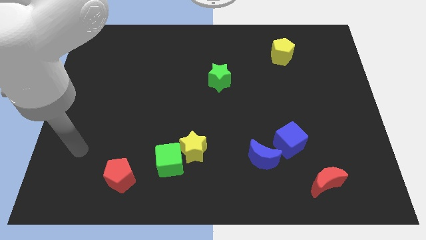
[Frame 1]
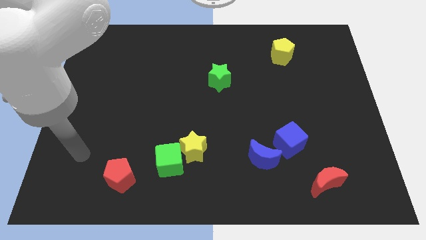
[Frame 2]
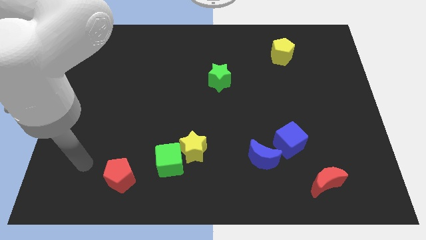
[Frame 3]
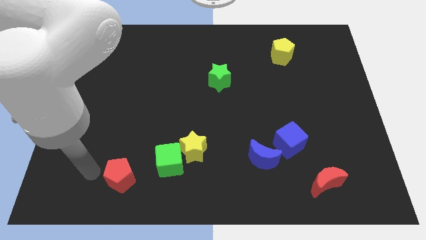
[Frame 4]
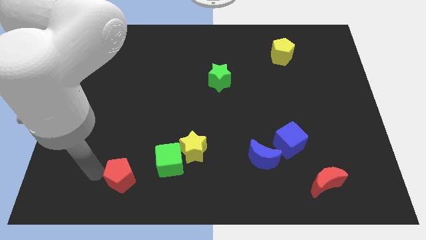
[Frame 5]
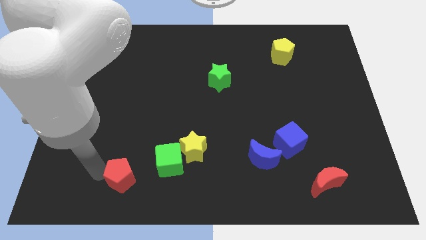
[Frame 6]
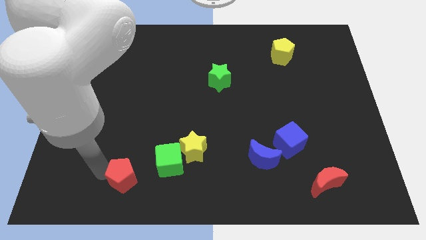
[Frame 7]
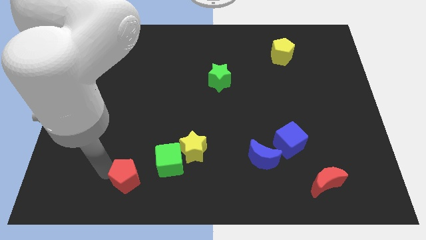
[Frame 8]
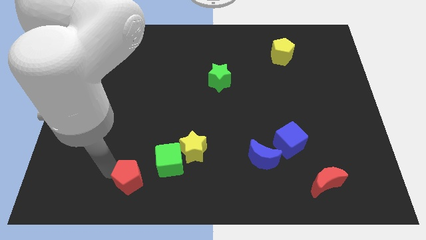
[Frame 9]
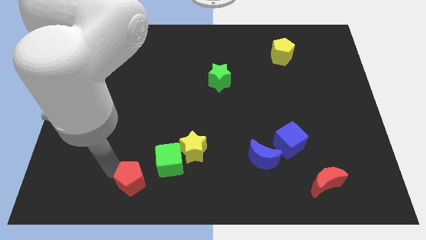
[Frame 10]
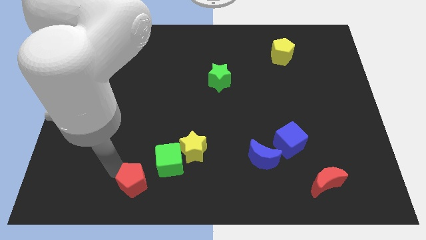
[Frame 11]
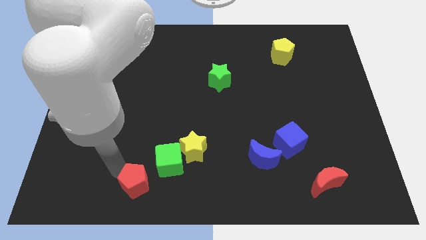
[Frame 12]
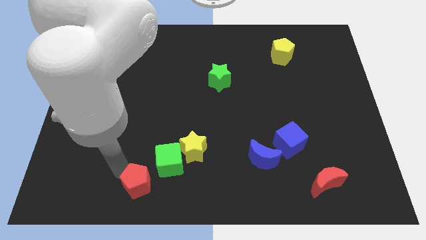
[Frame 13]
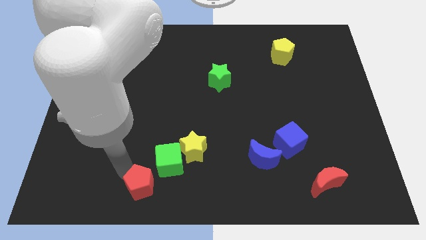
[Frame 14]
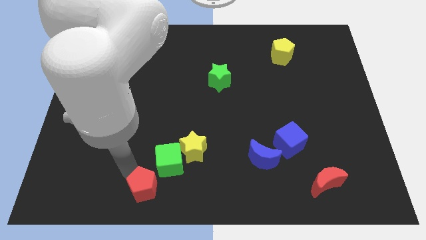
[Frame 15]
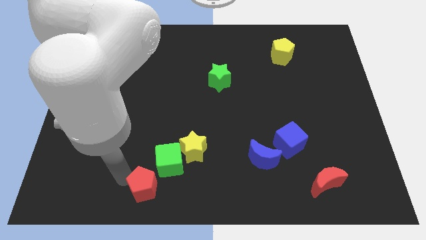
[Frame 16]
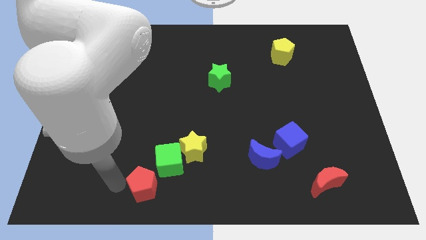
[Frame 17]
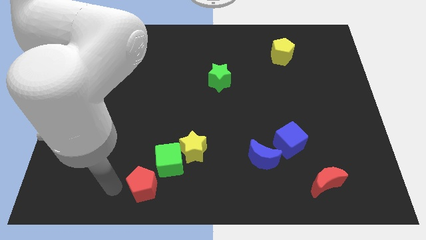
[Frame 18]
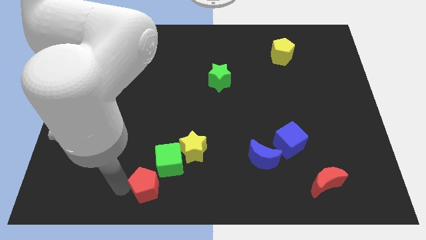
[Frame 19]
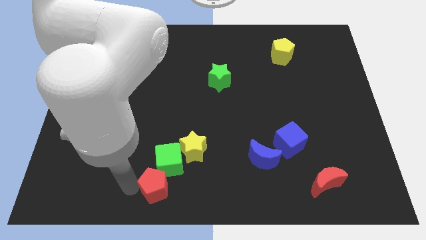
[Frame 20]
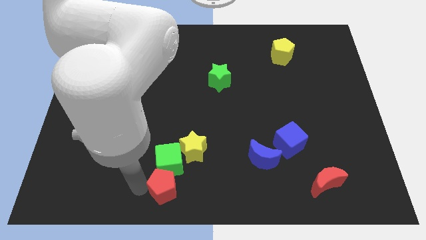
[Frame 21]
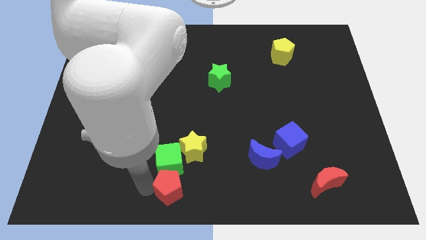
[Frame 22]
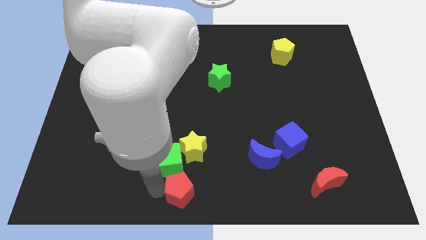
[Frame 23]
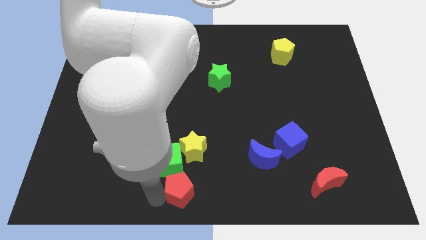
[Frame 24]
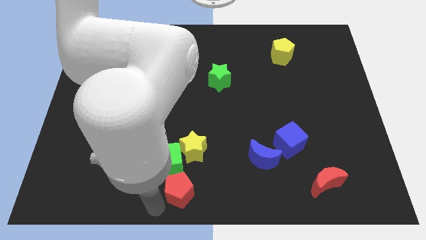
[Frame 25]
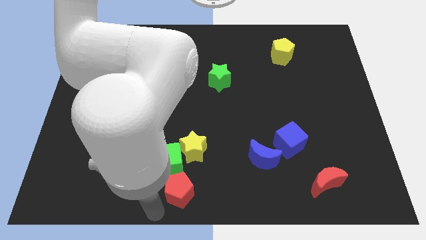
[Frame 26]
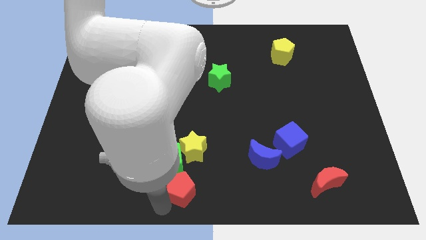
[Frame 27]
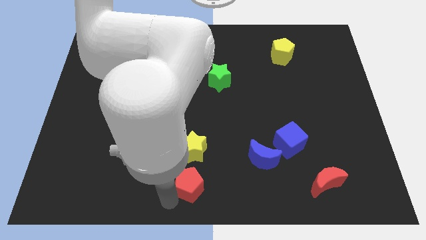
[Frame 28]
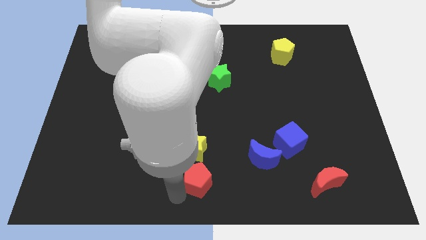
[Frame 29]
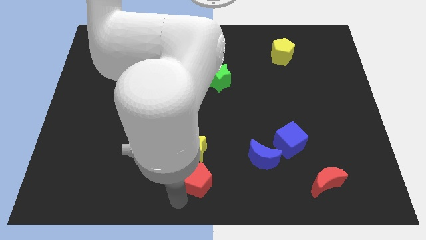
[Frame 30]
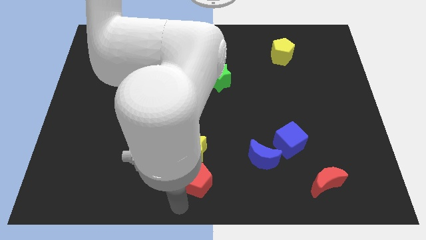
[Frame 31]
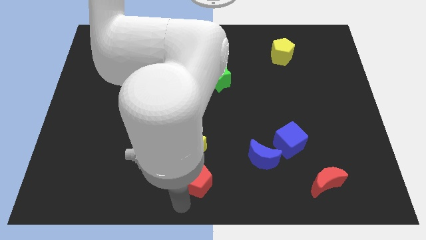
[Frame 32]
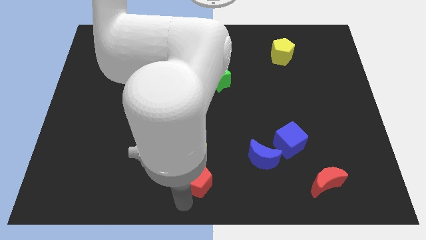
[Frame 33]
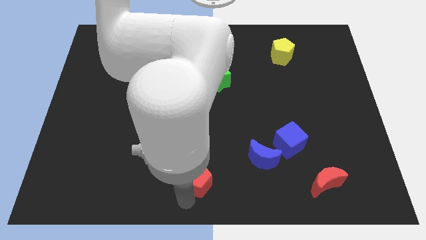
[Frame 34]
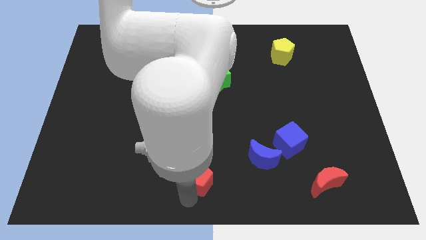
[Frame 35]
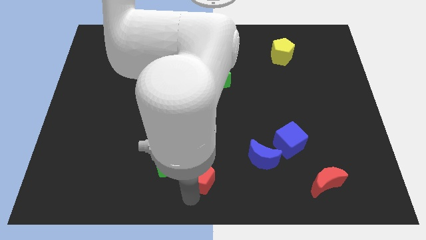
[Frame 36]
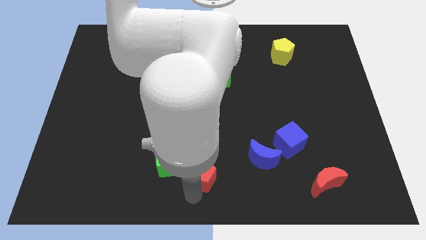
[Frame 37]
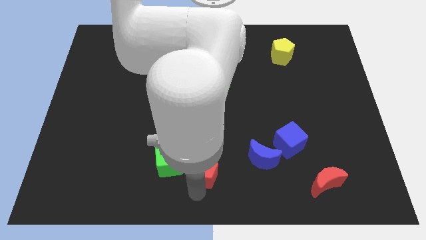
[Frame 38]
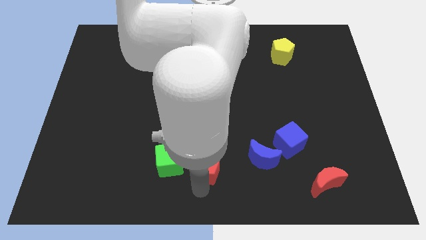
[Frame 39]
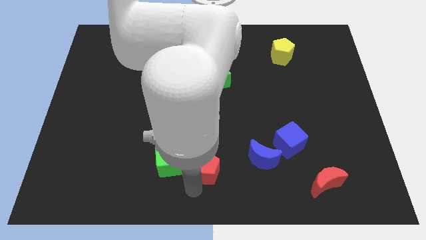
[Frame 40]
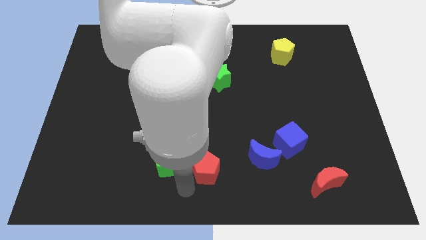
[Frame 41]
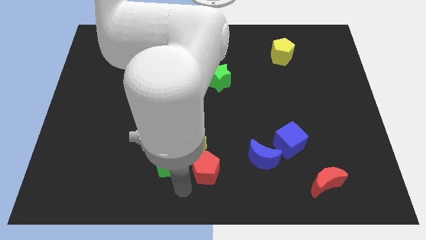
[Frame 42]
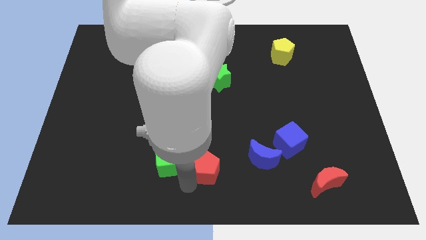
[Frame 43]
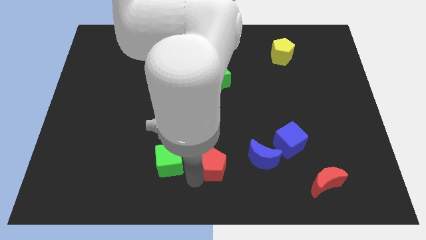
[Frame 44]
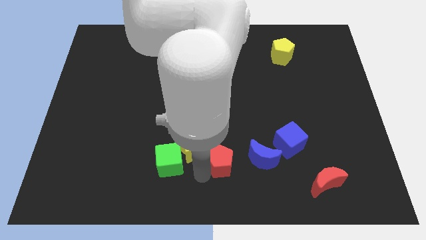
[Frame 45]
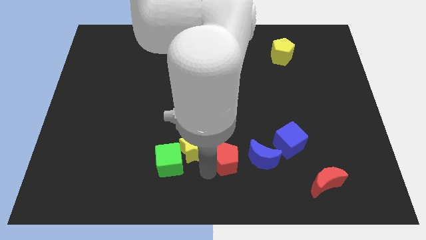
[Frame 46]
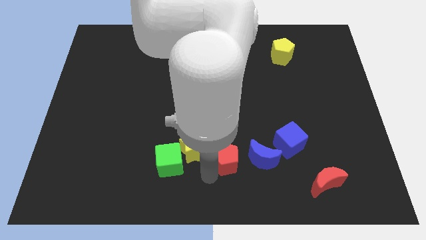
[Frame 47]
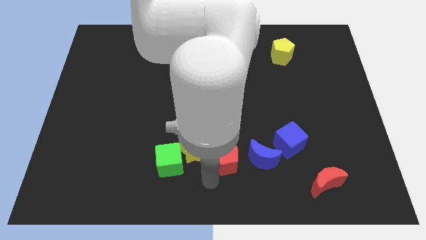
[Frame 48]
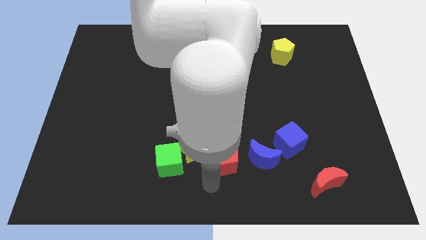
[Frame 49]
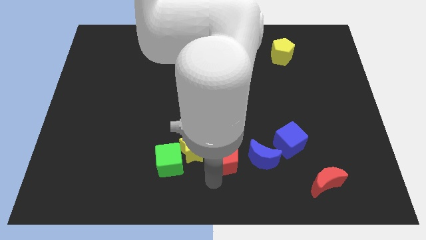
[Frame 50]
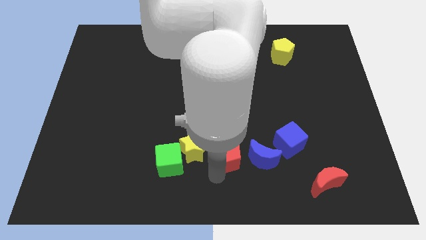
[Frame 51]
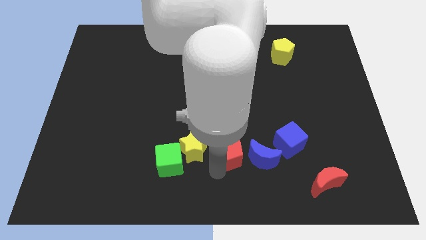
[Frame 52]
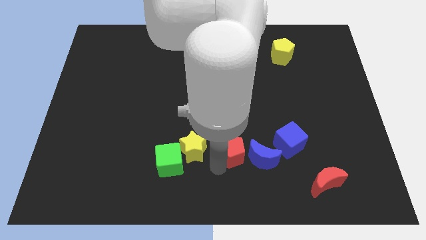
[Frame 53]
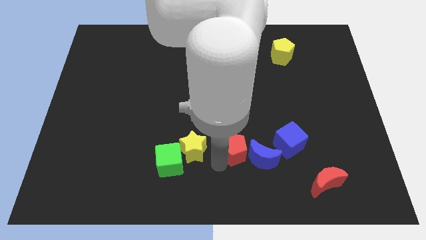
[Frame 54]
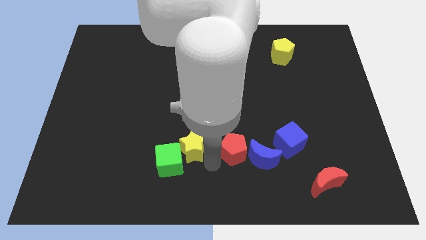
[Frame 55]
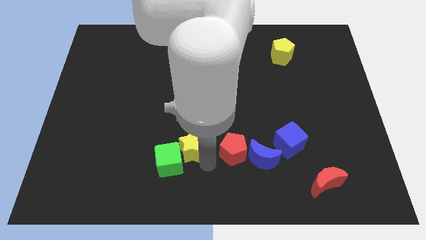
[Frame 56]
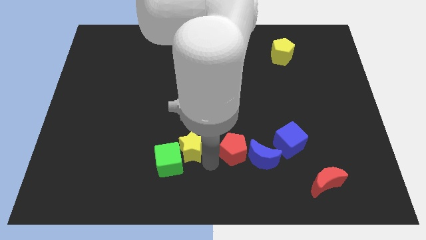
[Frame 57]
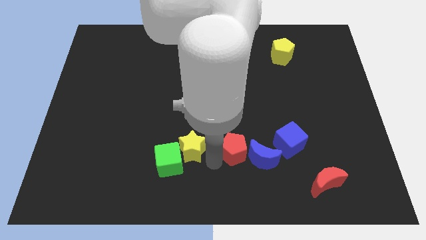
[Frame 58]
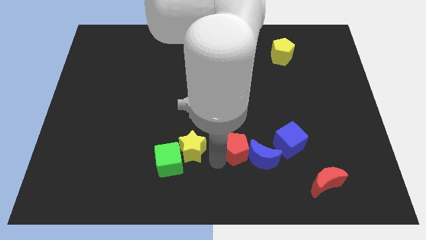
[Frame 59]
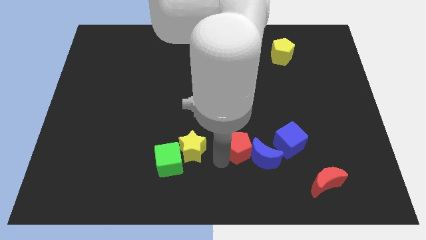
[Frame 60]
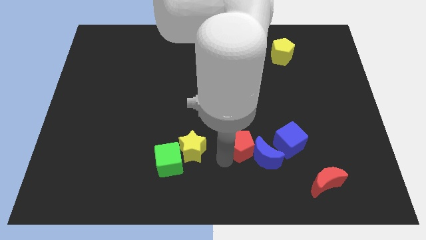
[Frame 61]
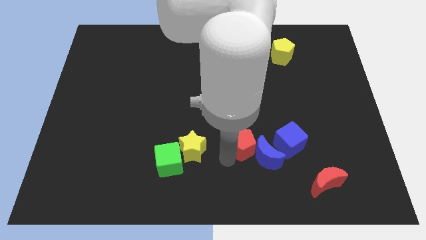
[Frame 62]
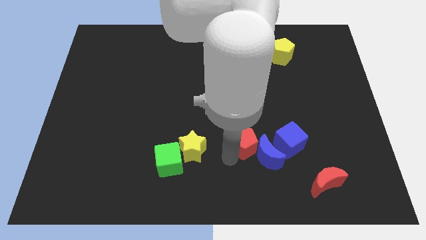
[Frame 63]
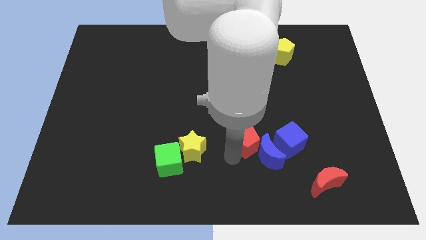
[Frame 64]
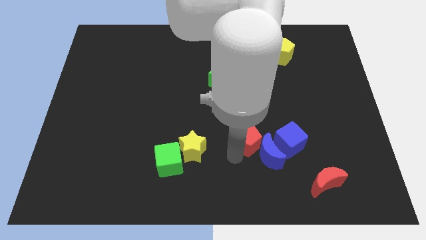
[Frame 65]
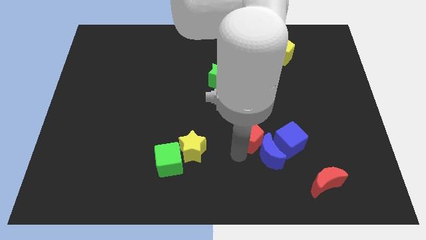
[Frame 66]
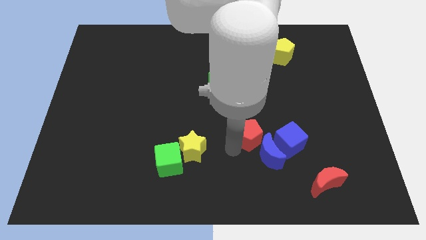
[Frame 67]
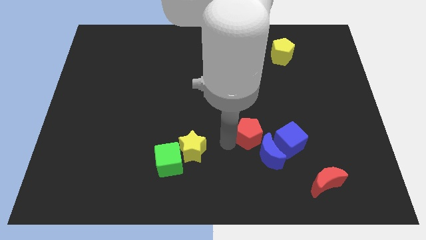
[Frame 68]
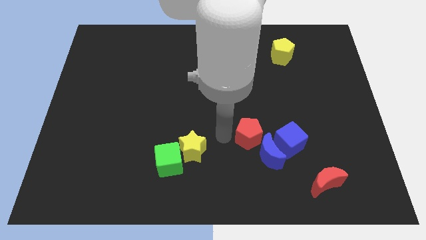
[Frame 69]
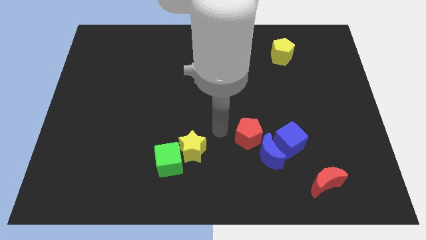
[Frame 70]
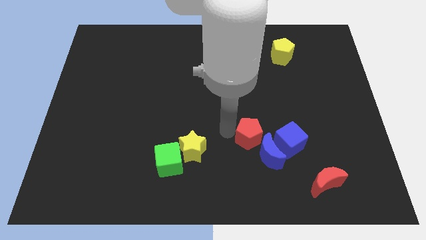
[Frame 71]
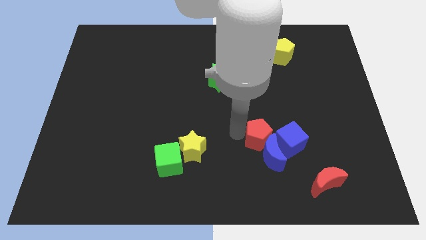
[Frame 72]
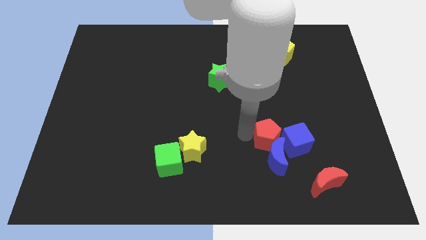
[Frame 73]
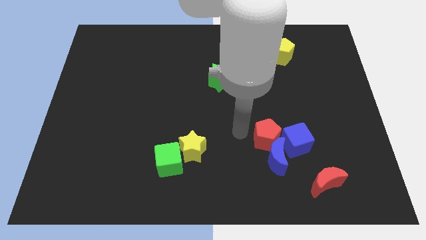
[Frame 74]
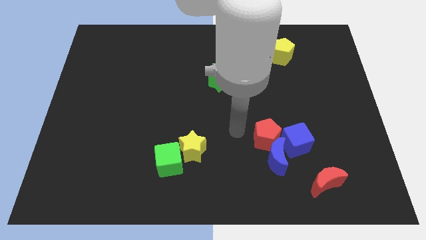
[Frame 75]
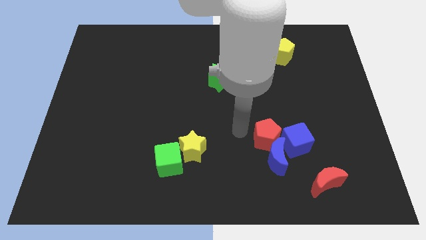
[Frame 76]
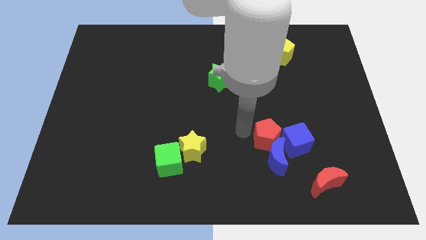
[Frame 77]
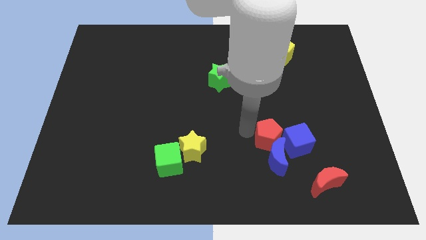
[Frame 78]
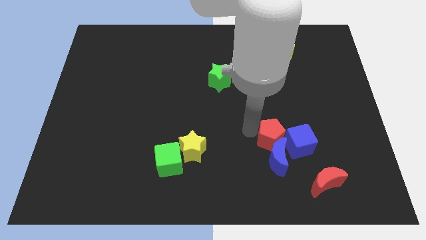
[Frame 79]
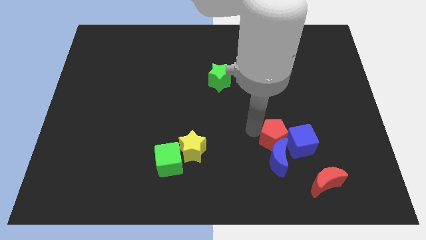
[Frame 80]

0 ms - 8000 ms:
push the red pentagon to the blue cube
